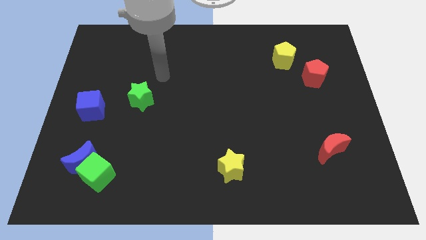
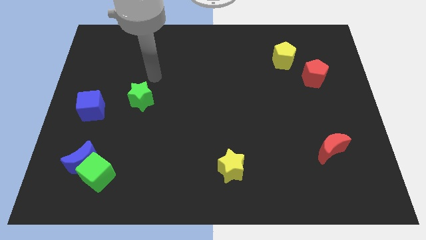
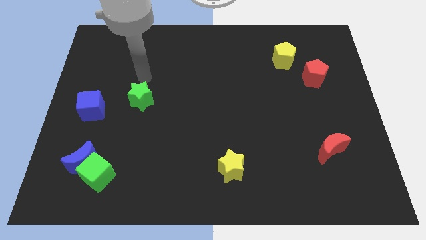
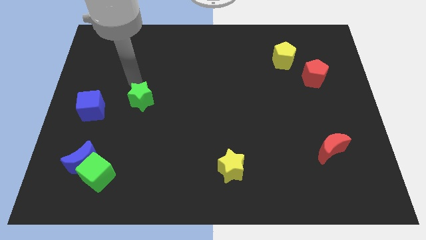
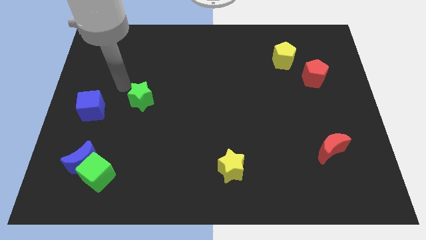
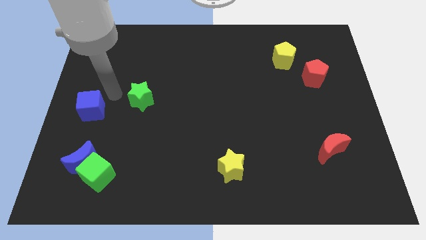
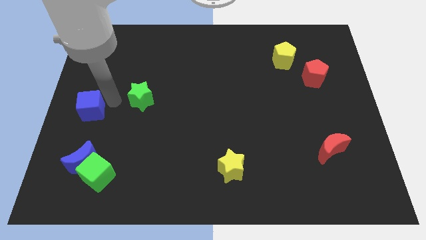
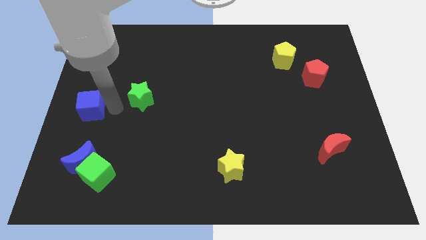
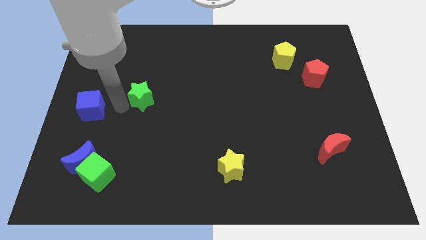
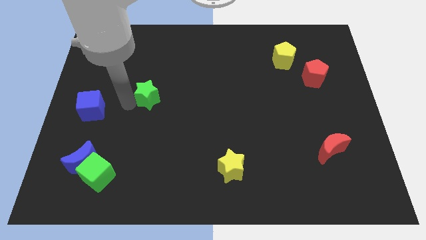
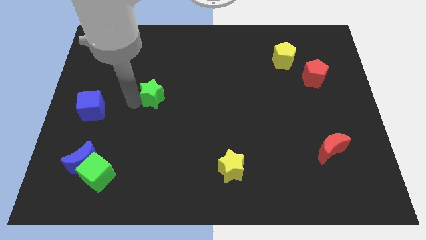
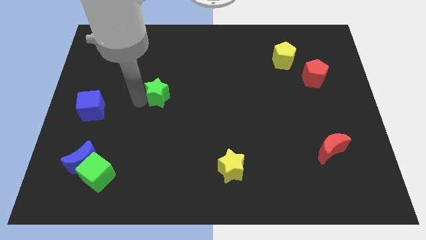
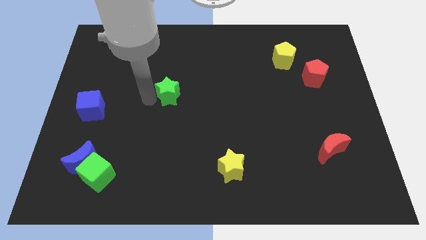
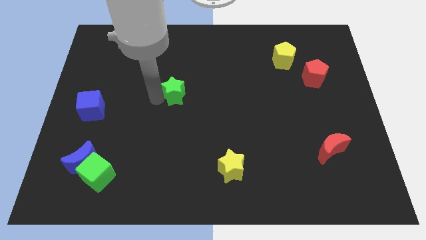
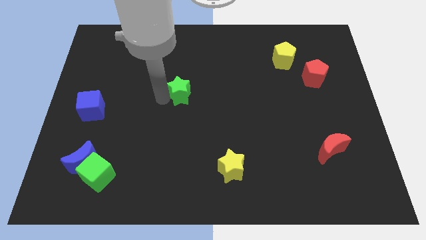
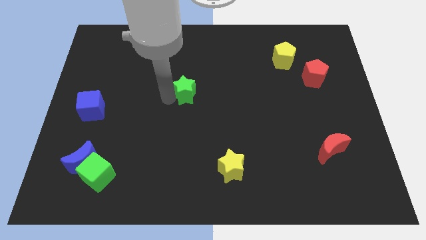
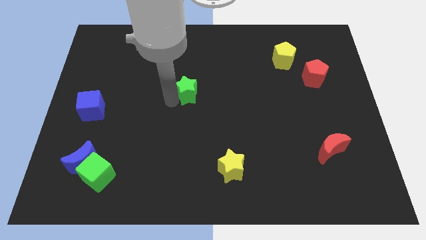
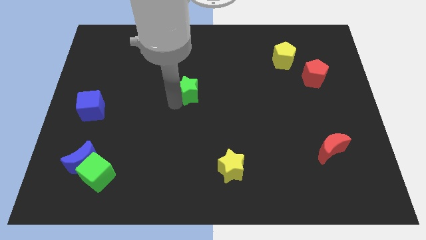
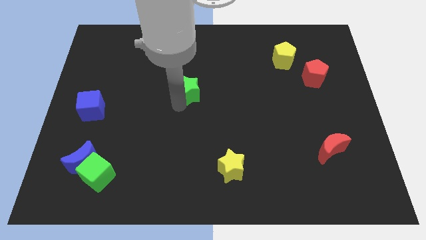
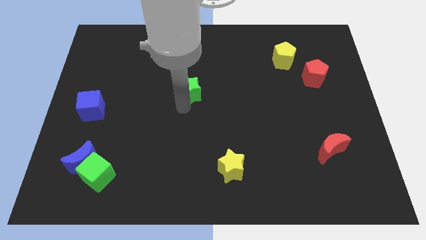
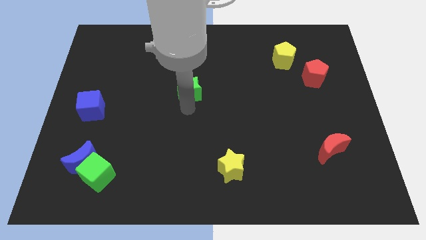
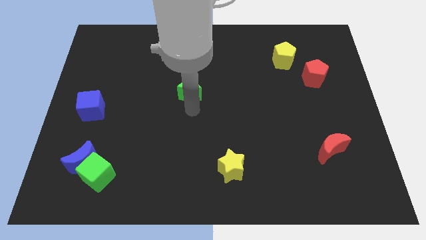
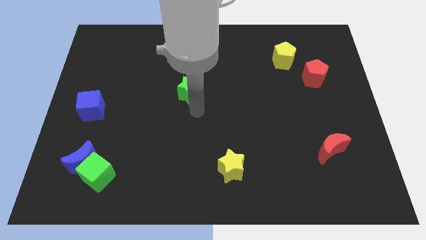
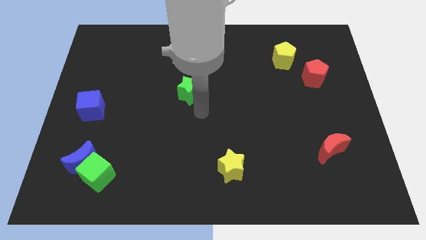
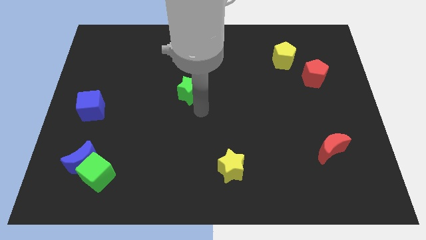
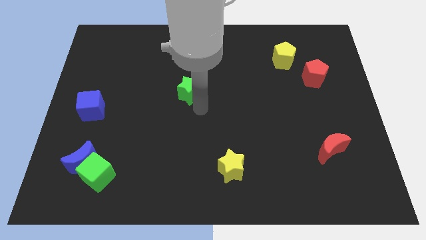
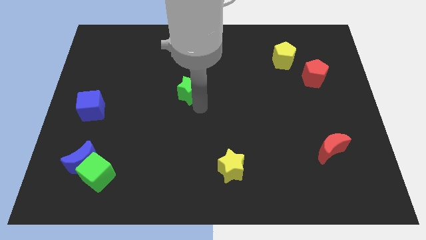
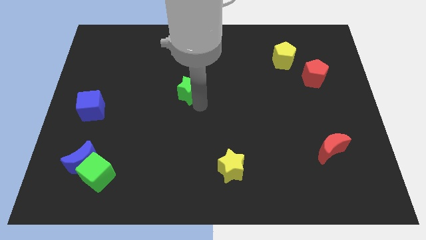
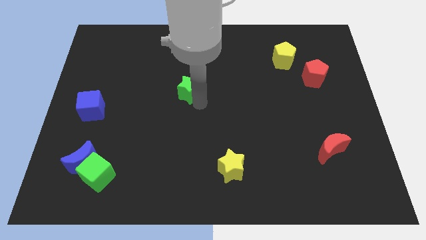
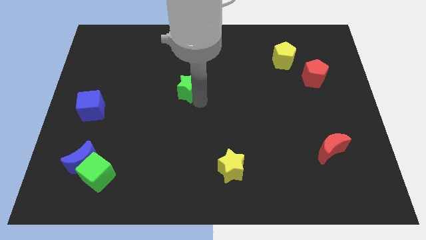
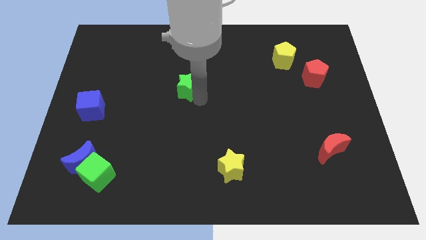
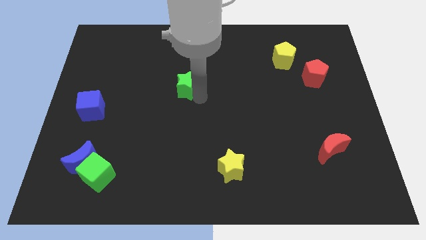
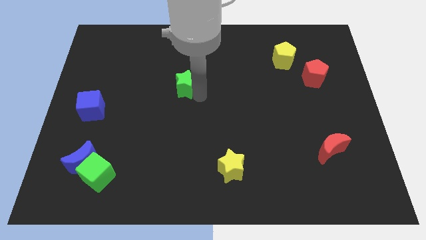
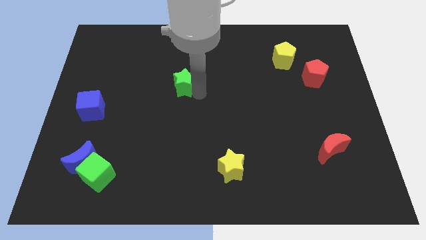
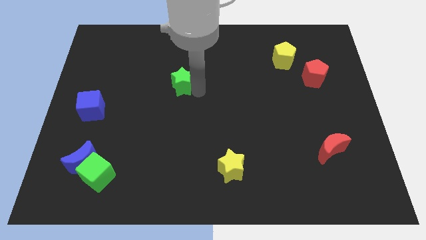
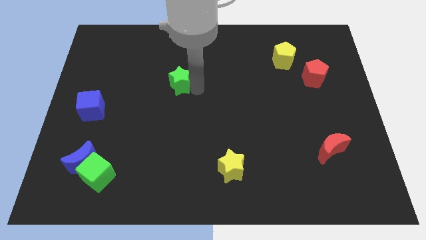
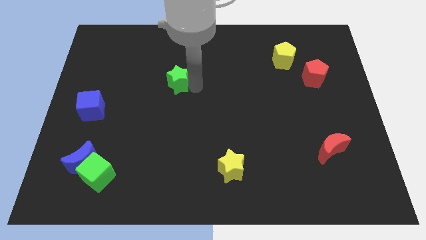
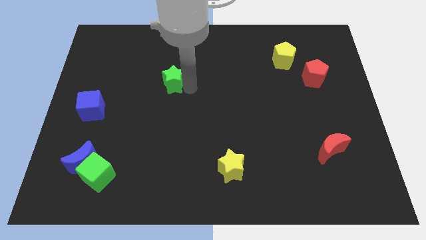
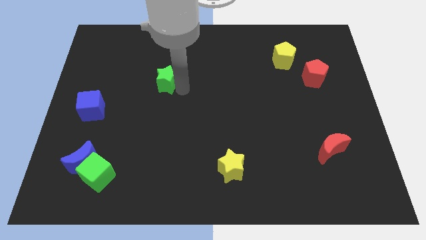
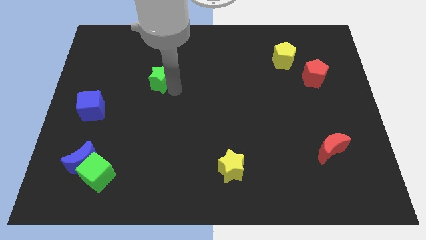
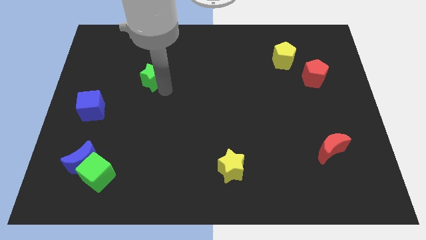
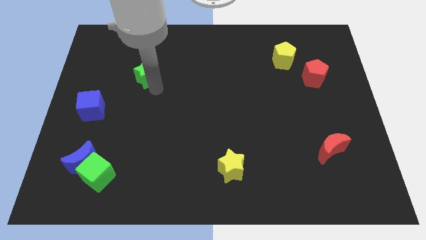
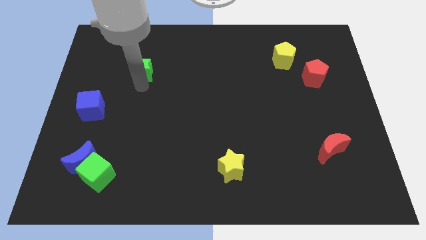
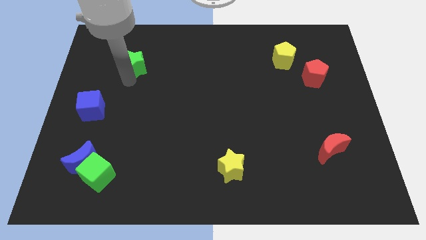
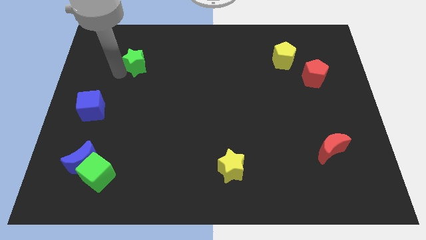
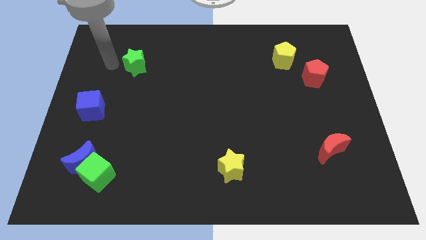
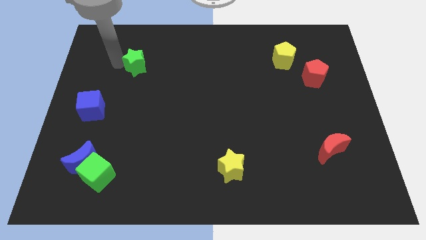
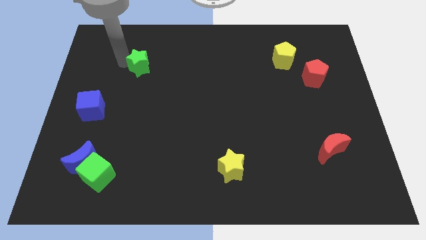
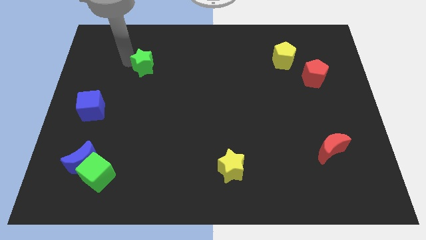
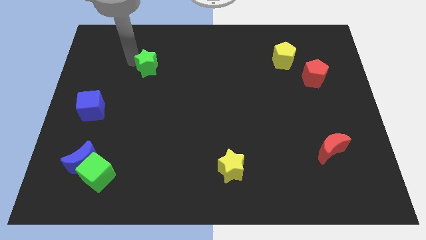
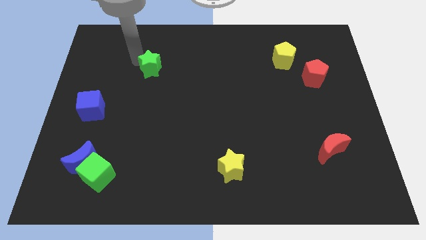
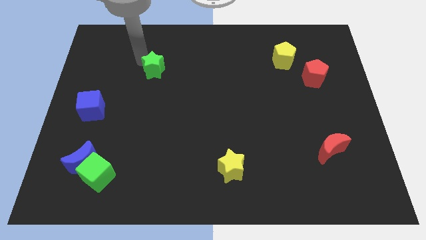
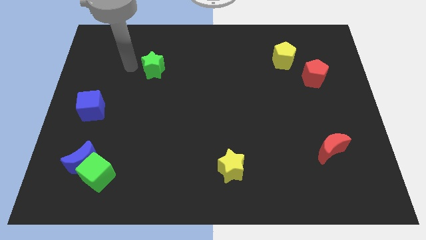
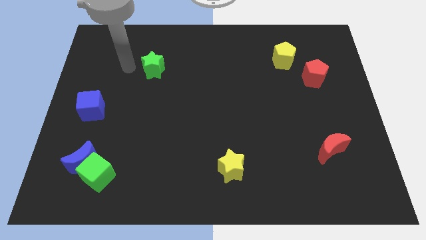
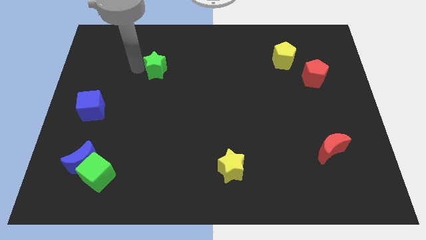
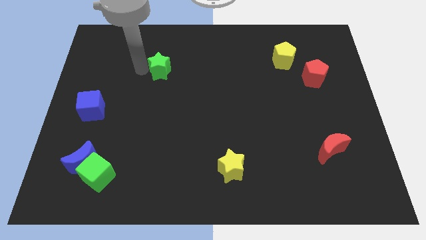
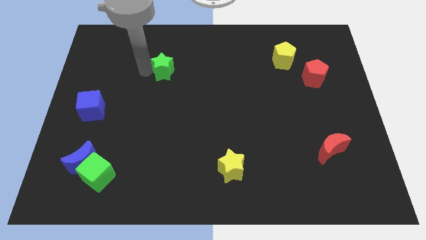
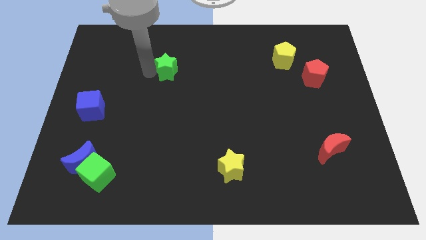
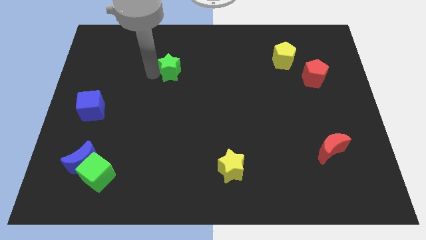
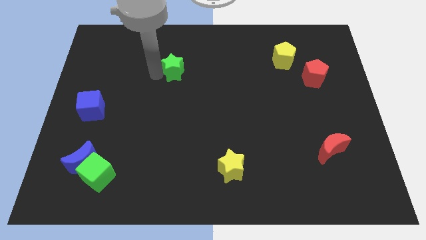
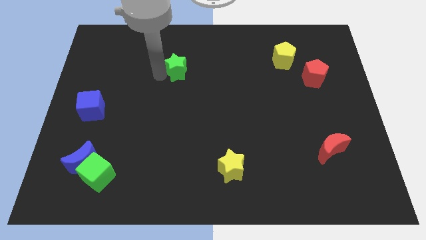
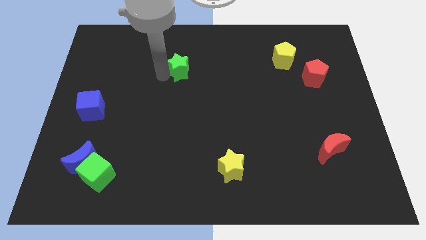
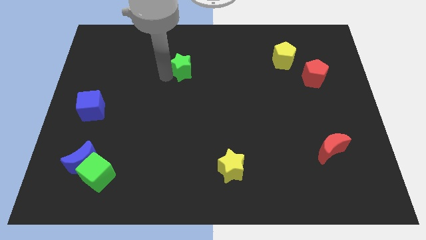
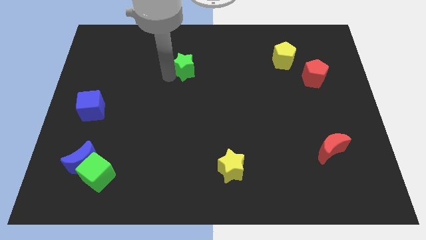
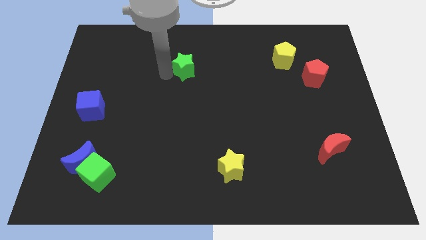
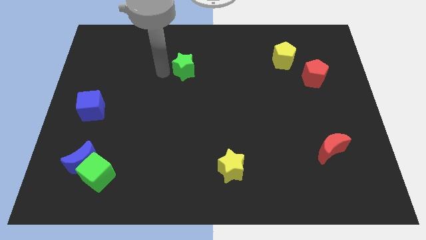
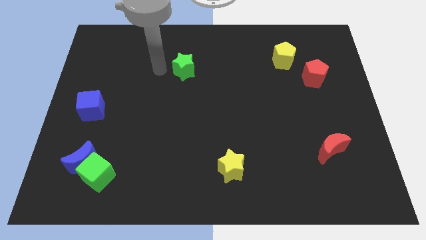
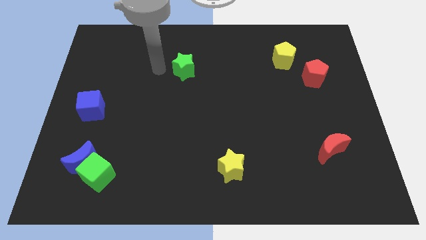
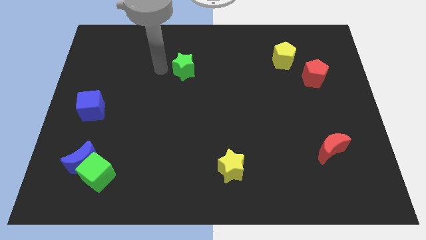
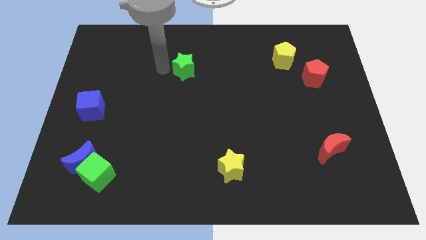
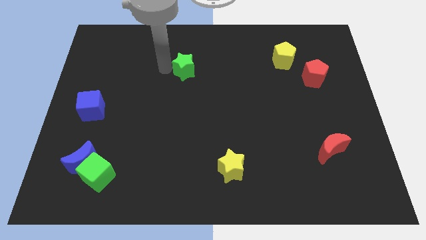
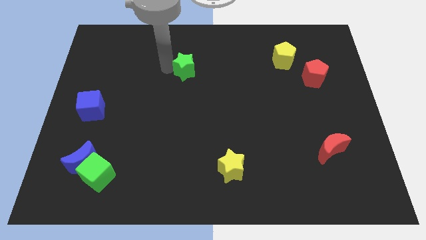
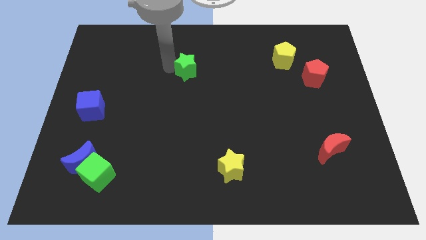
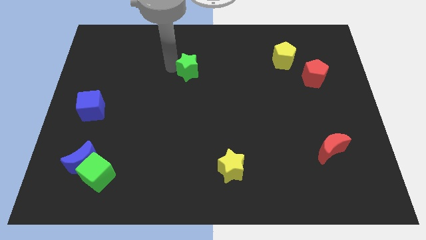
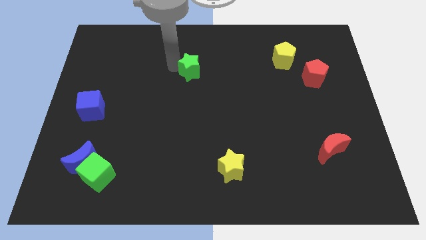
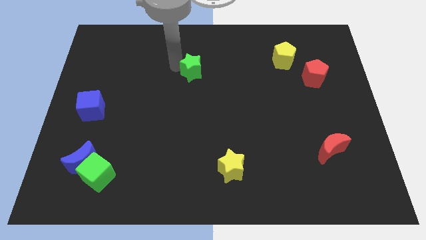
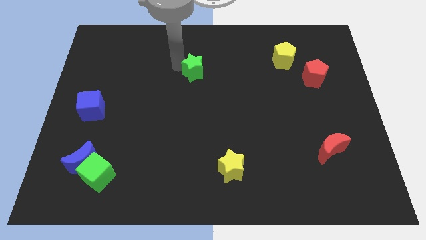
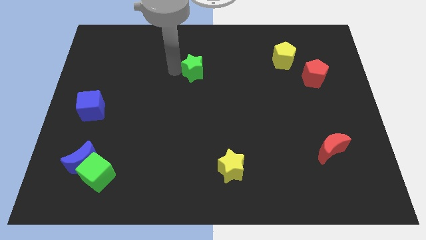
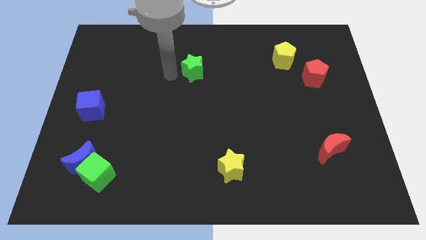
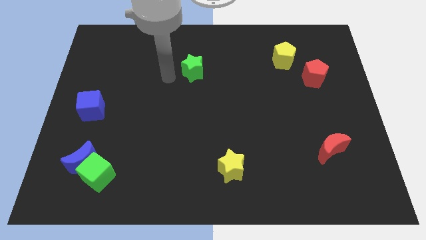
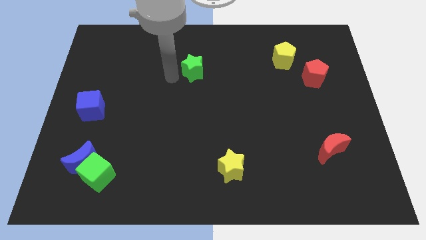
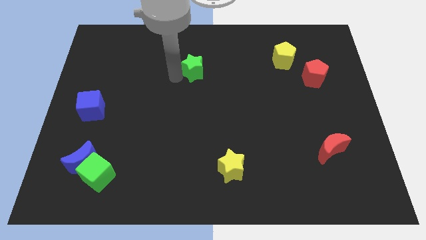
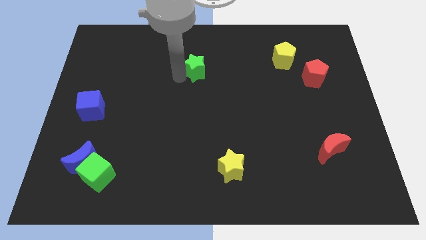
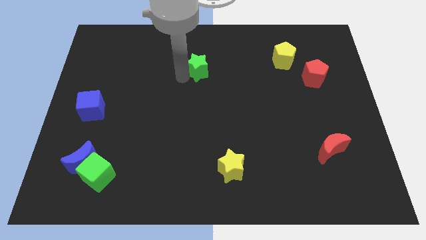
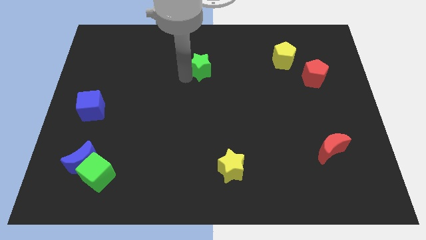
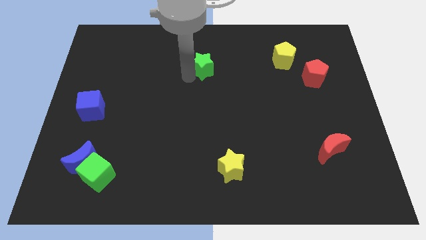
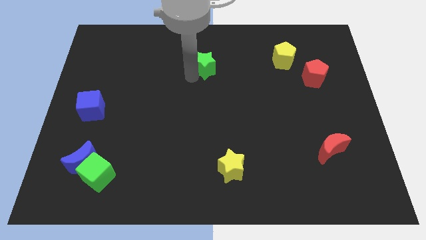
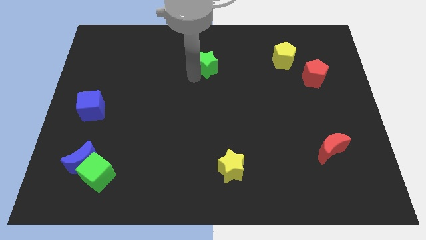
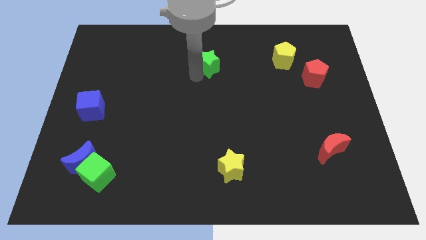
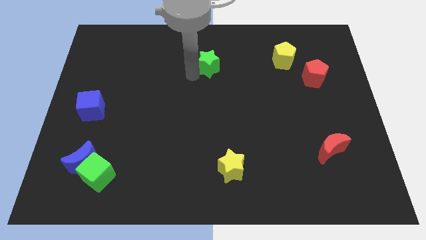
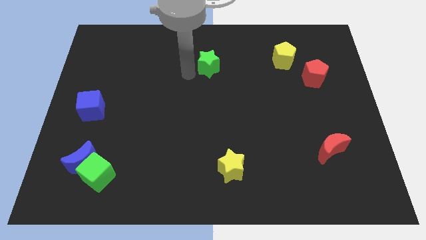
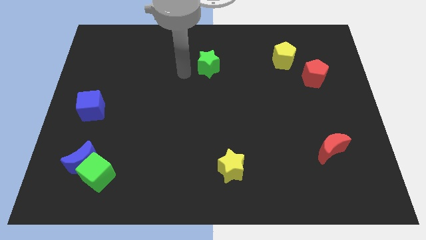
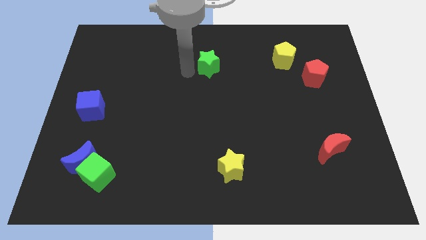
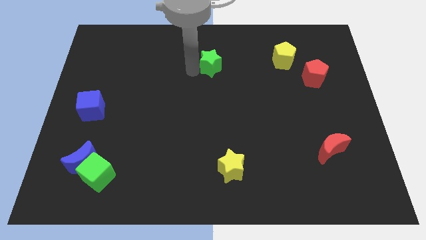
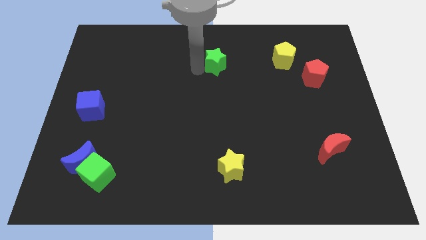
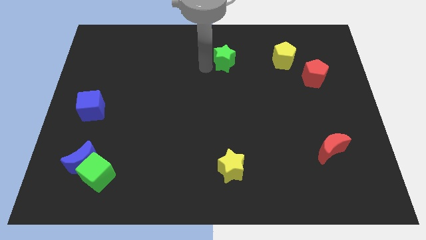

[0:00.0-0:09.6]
put the green star to the left of the yellow pentagon
